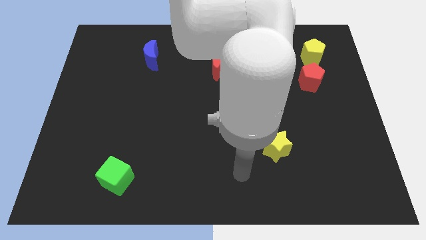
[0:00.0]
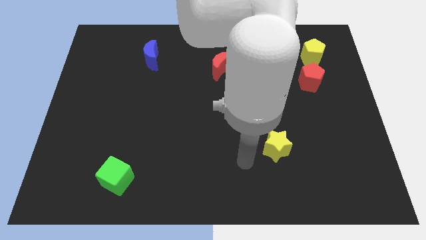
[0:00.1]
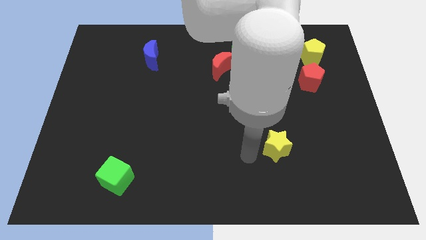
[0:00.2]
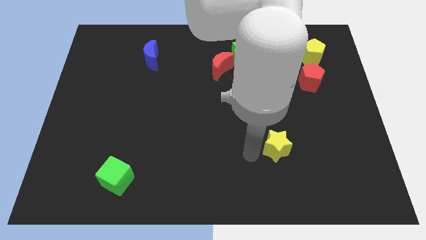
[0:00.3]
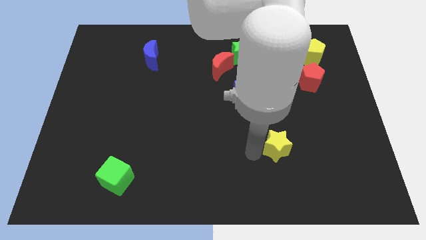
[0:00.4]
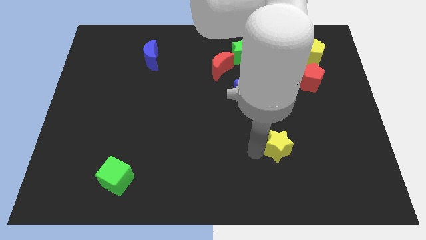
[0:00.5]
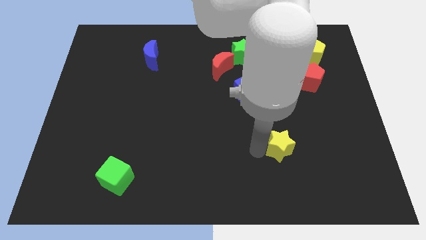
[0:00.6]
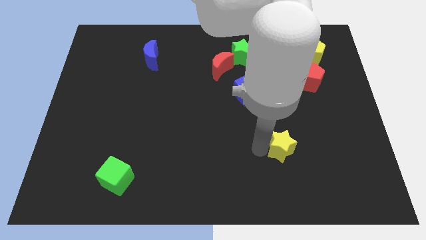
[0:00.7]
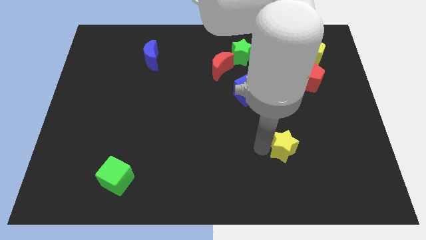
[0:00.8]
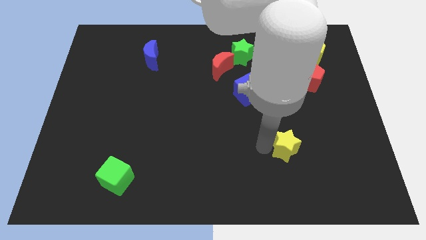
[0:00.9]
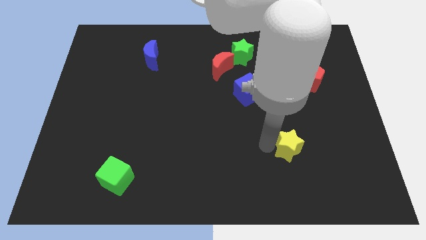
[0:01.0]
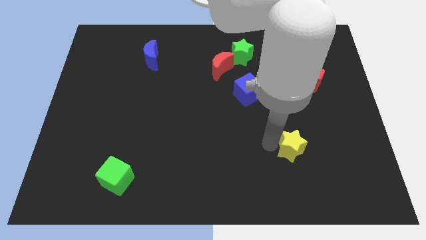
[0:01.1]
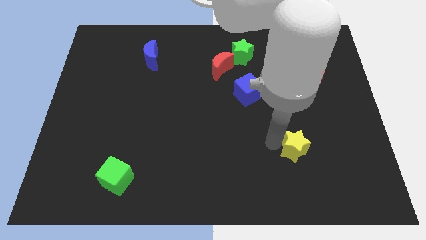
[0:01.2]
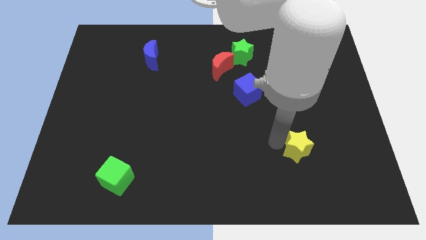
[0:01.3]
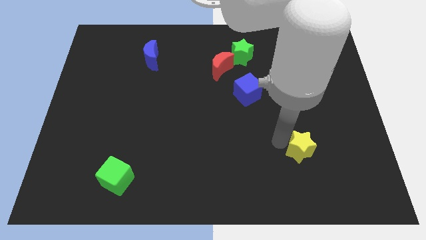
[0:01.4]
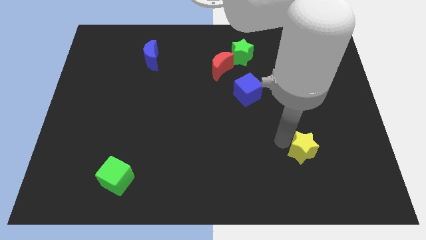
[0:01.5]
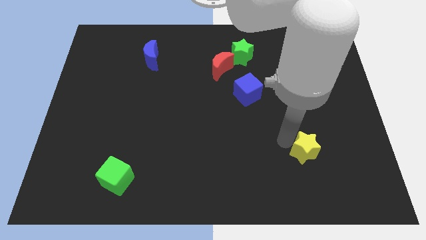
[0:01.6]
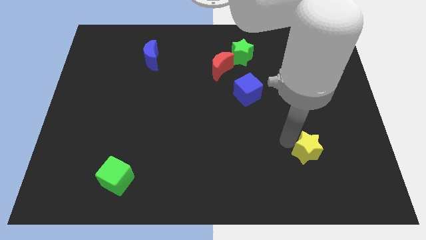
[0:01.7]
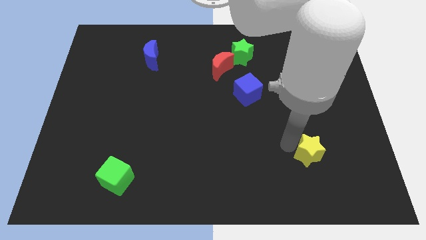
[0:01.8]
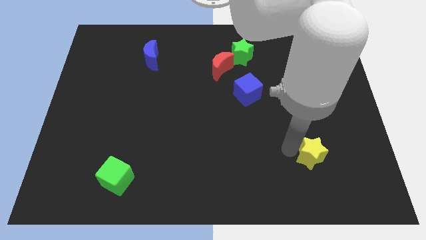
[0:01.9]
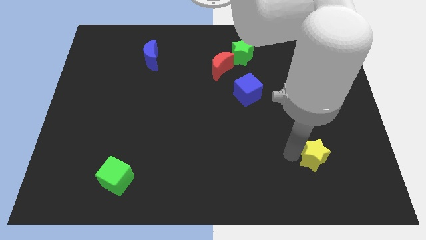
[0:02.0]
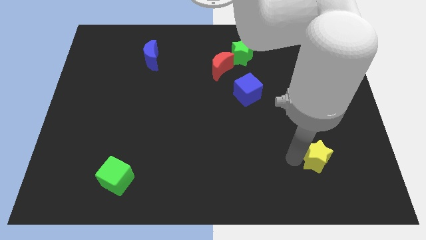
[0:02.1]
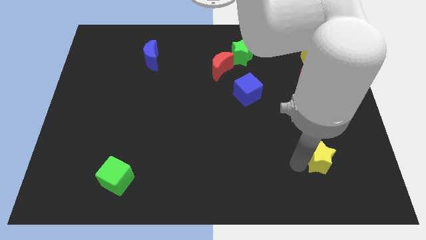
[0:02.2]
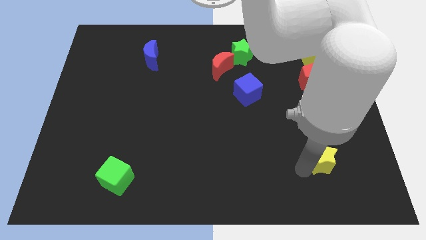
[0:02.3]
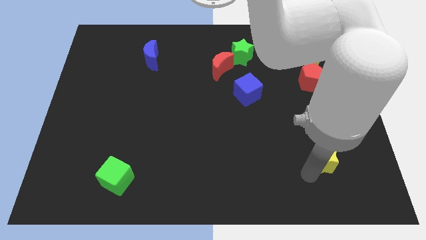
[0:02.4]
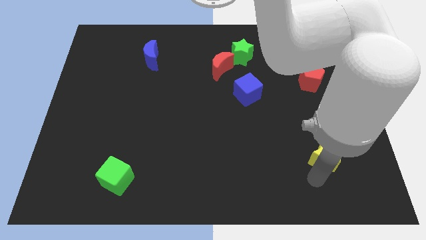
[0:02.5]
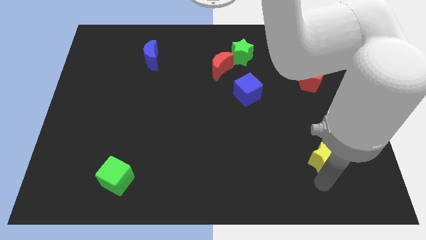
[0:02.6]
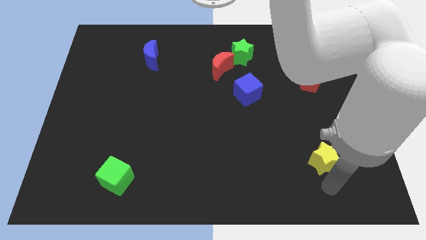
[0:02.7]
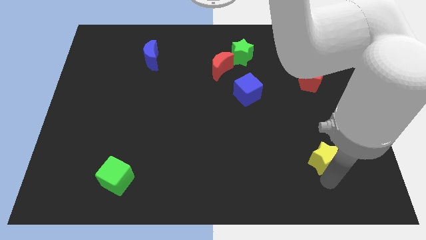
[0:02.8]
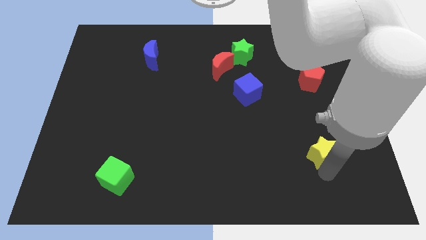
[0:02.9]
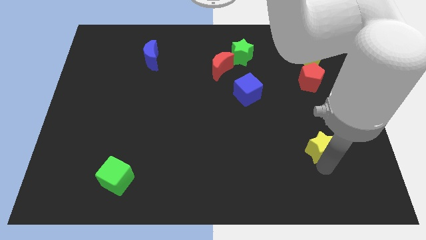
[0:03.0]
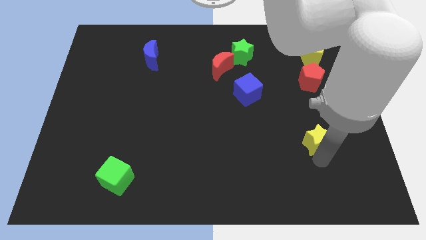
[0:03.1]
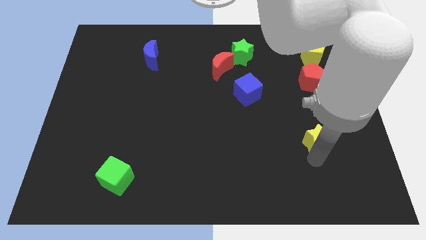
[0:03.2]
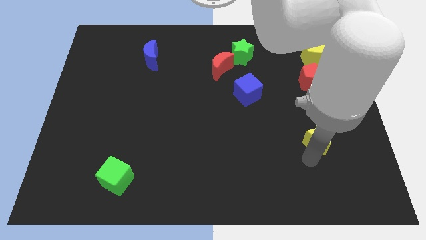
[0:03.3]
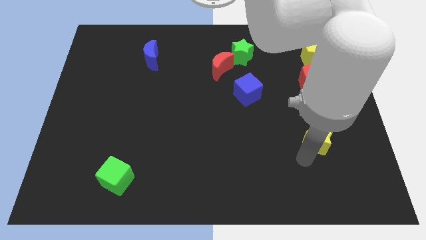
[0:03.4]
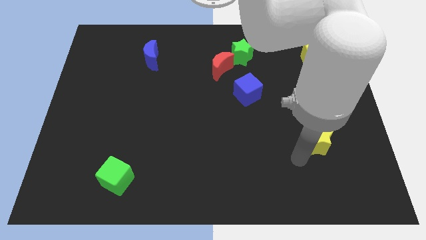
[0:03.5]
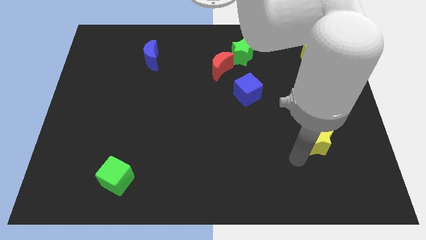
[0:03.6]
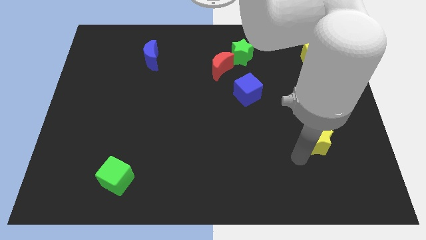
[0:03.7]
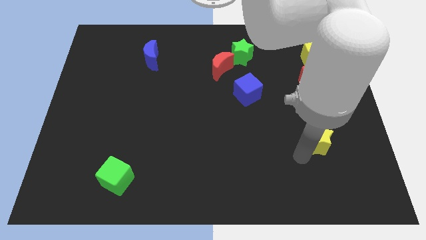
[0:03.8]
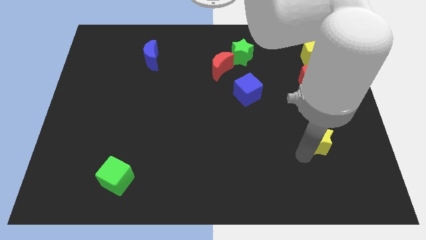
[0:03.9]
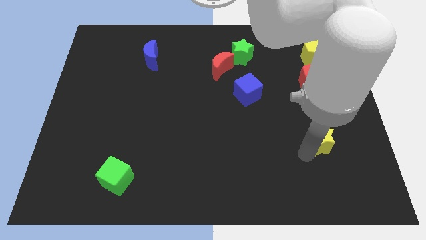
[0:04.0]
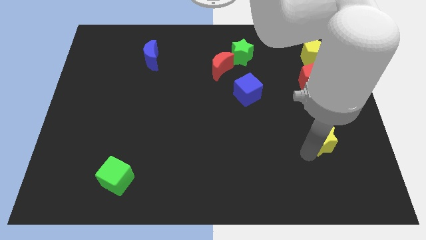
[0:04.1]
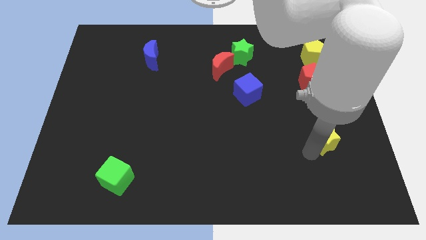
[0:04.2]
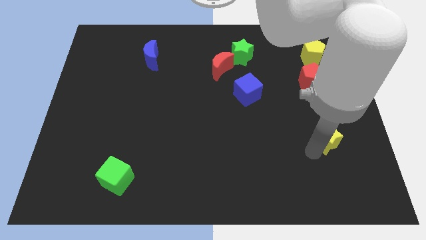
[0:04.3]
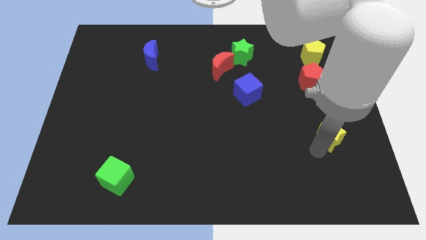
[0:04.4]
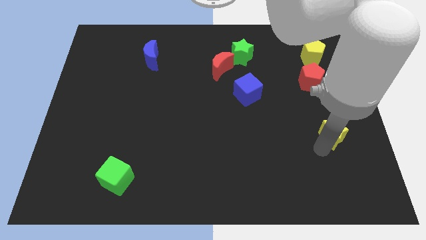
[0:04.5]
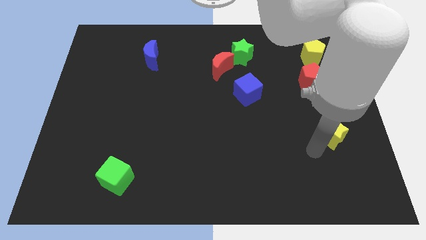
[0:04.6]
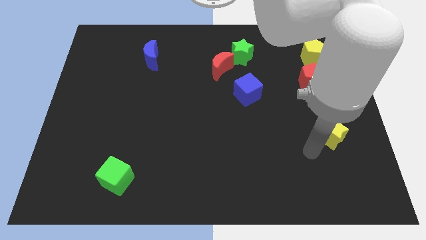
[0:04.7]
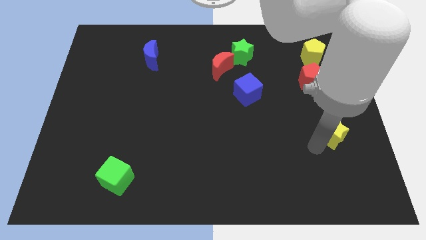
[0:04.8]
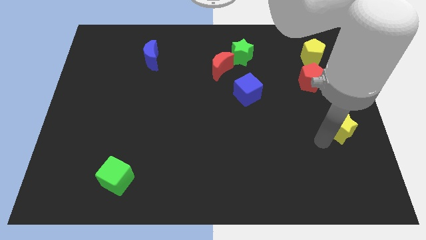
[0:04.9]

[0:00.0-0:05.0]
push the yellow star to the right side of the board

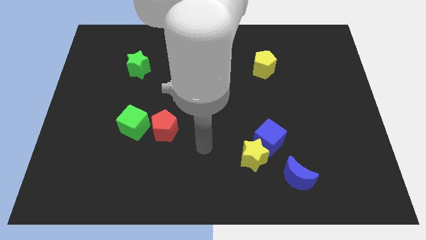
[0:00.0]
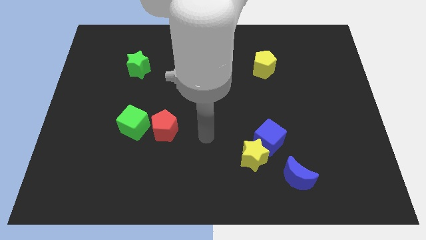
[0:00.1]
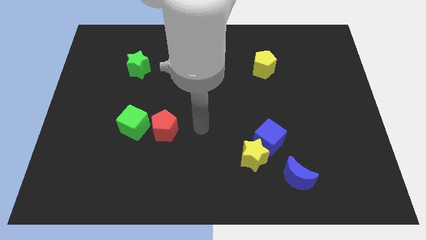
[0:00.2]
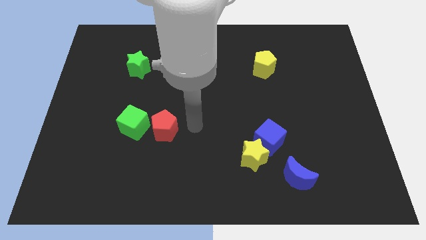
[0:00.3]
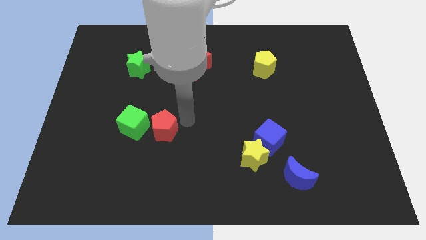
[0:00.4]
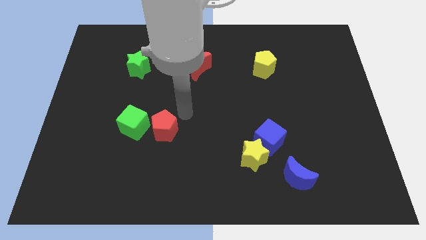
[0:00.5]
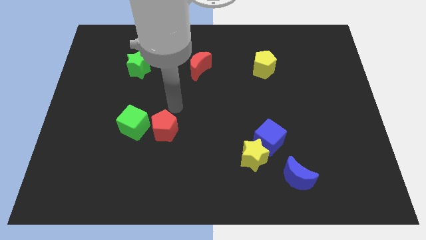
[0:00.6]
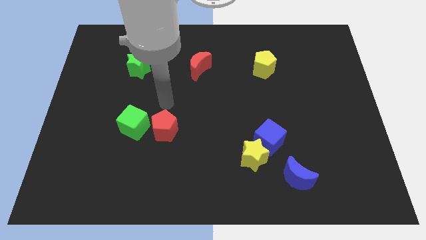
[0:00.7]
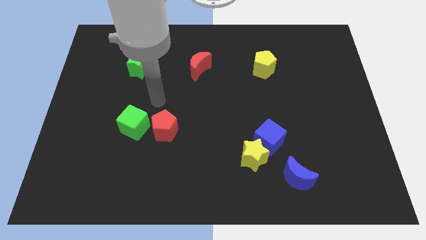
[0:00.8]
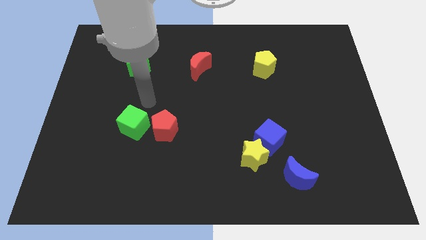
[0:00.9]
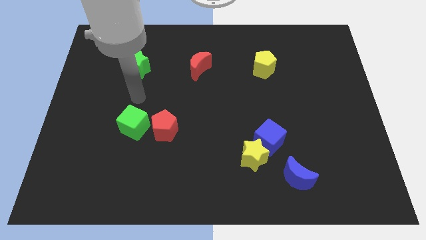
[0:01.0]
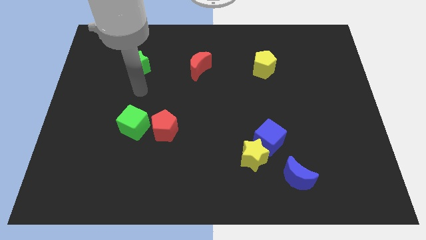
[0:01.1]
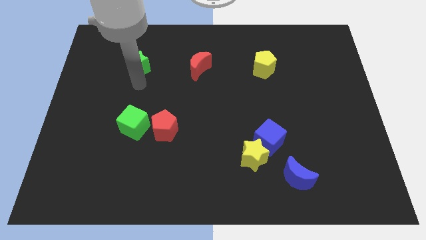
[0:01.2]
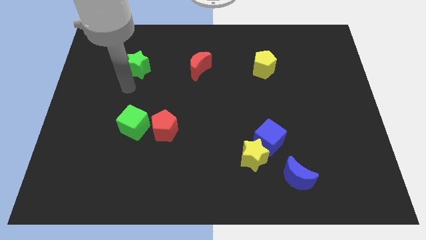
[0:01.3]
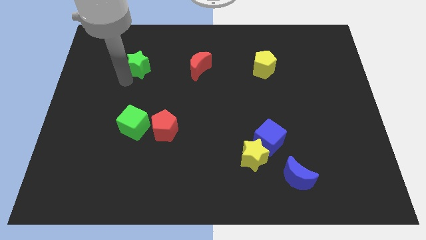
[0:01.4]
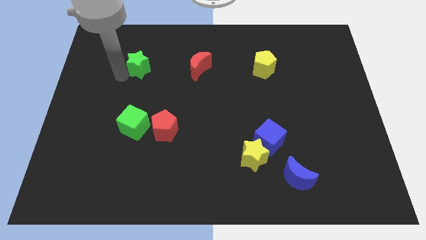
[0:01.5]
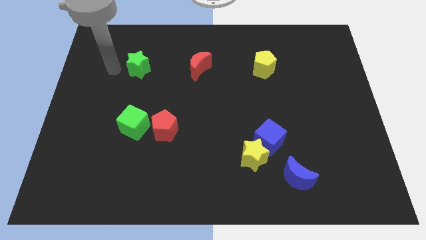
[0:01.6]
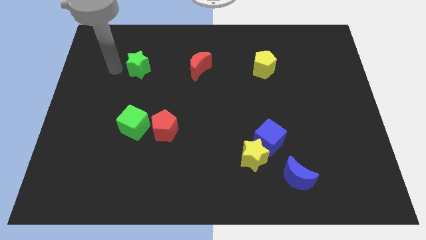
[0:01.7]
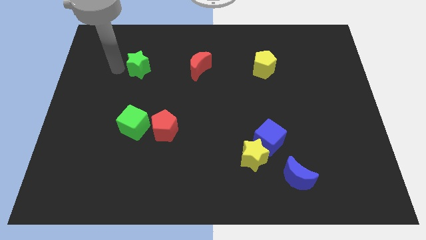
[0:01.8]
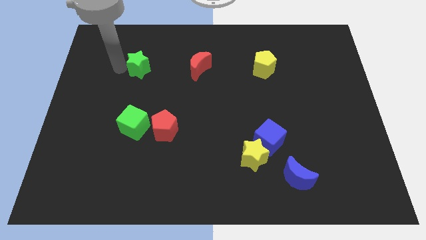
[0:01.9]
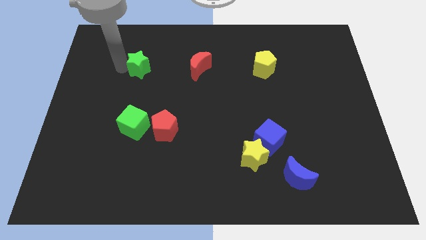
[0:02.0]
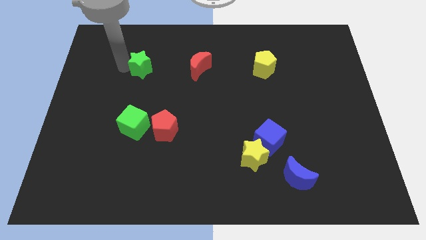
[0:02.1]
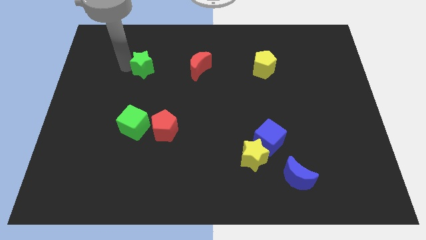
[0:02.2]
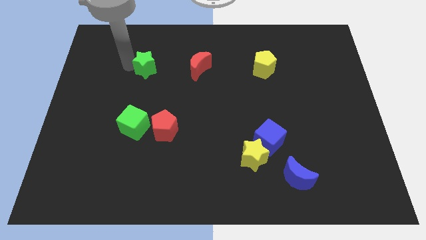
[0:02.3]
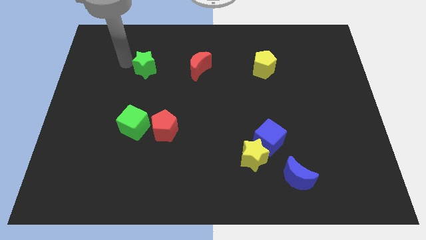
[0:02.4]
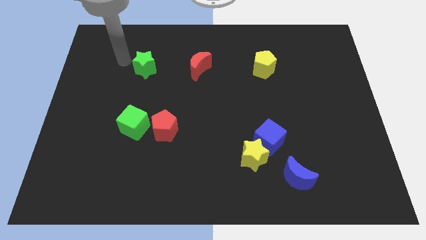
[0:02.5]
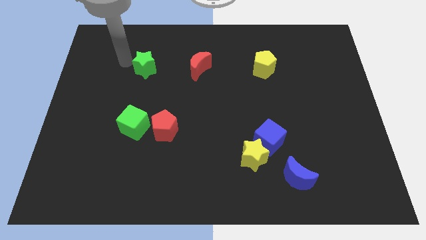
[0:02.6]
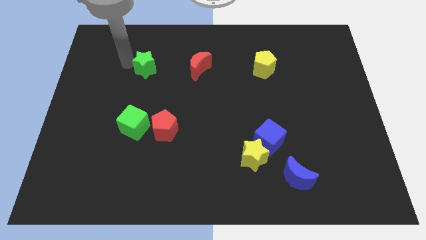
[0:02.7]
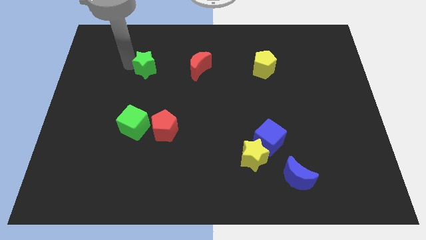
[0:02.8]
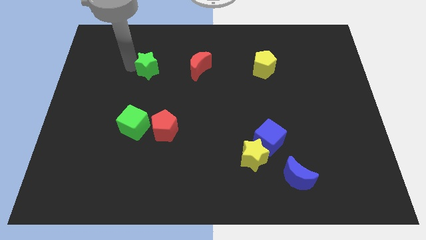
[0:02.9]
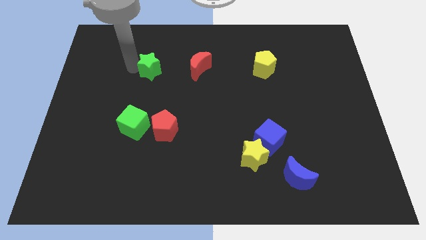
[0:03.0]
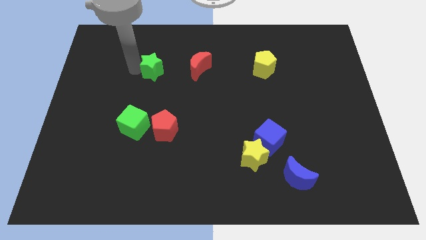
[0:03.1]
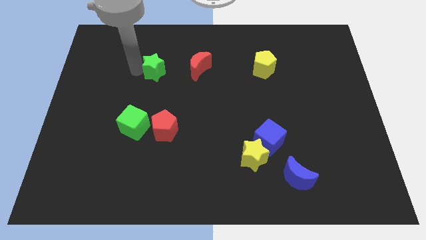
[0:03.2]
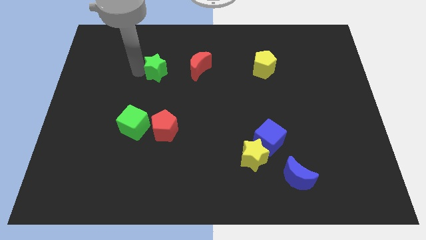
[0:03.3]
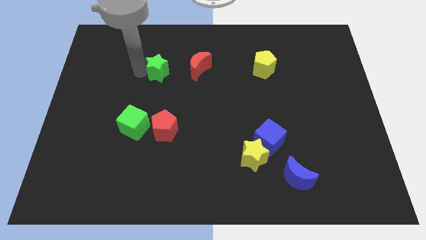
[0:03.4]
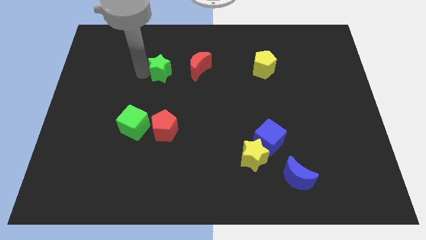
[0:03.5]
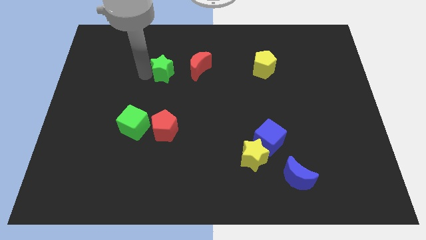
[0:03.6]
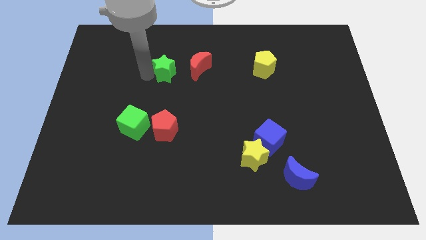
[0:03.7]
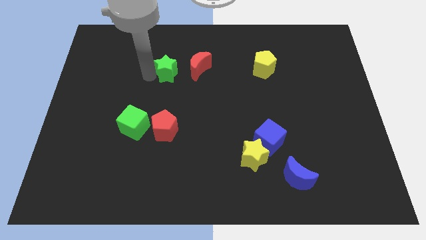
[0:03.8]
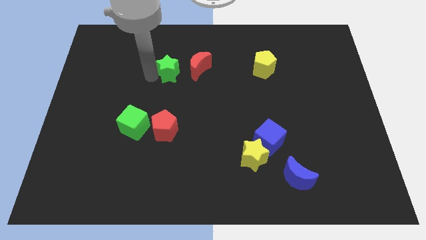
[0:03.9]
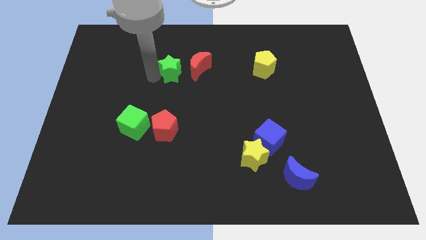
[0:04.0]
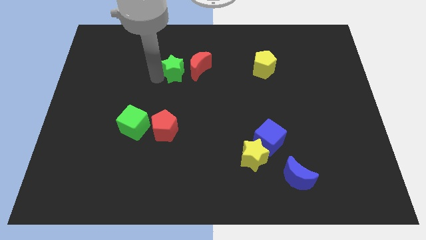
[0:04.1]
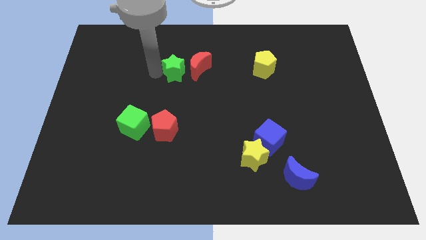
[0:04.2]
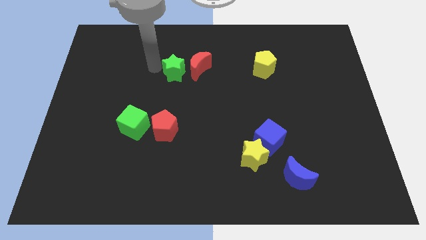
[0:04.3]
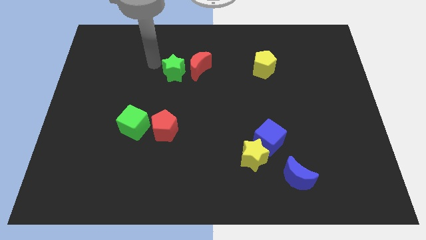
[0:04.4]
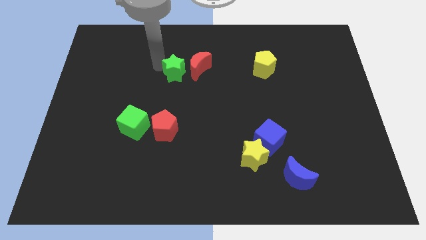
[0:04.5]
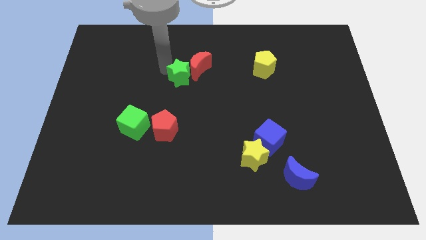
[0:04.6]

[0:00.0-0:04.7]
slide the green star to the middle
